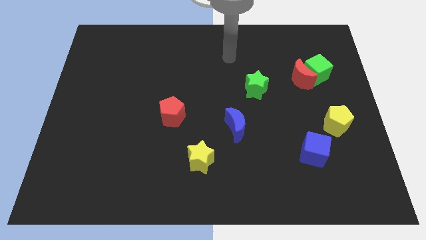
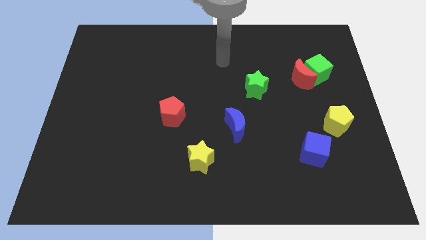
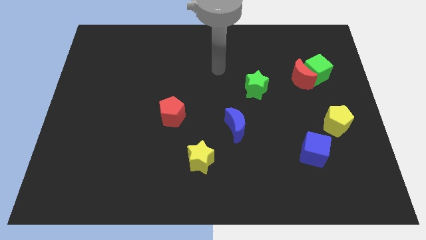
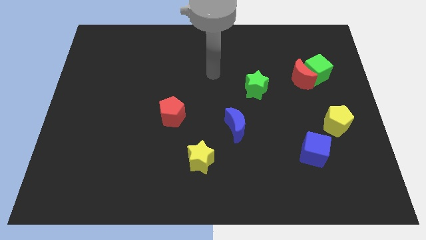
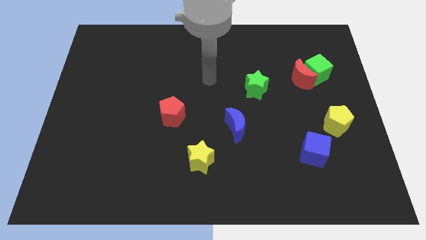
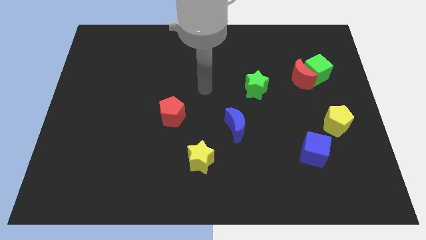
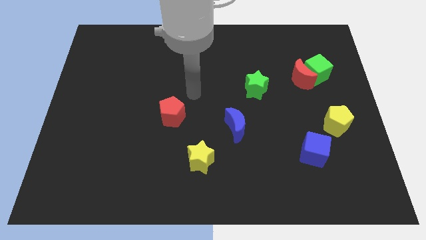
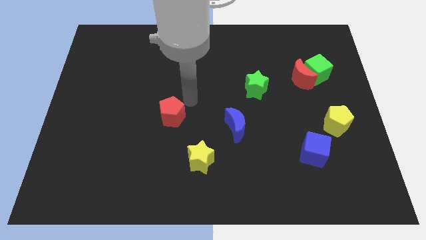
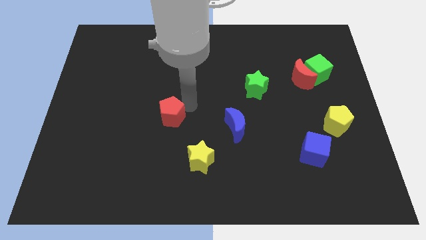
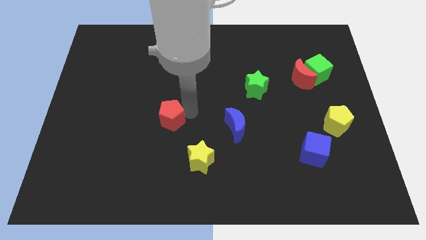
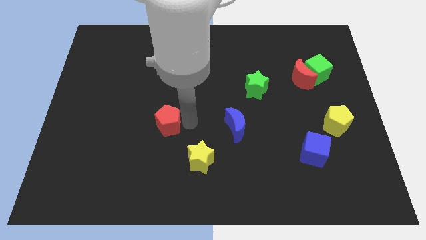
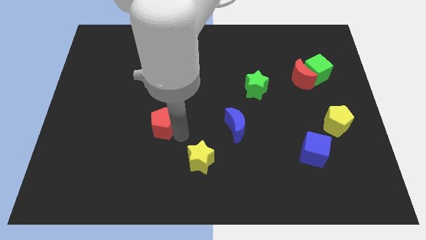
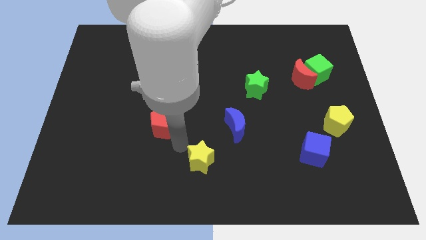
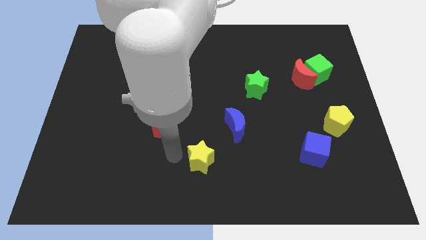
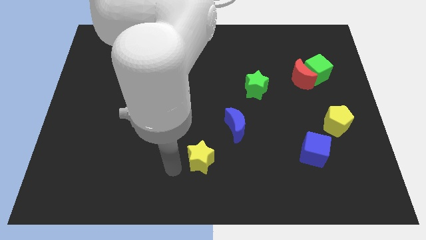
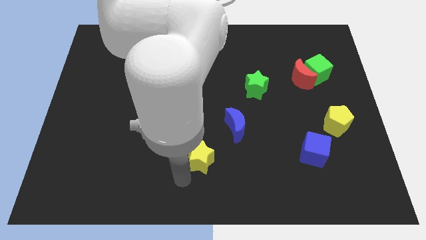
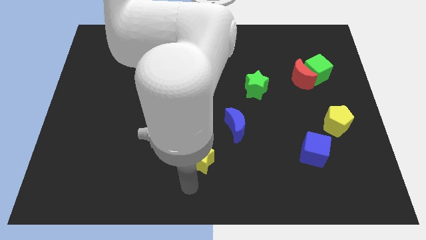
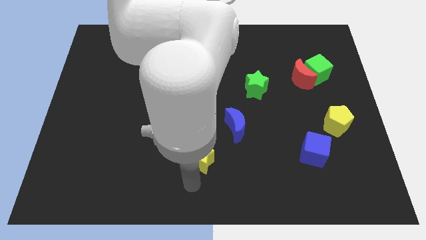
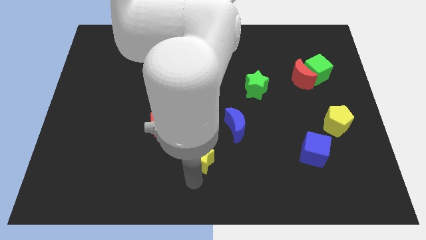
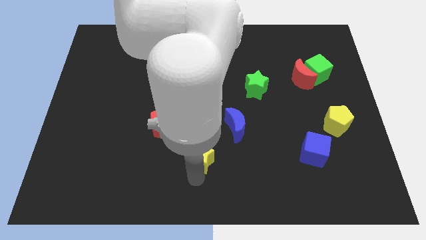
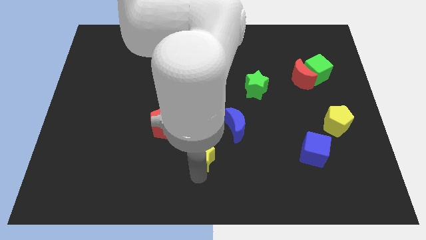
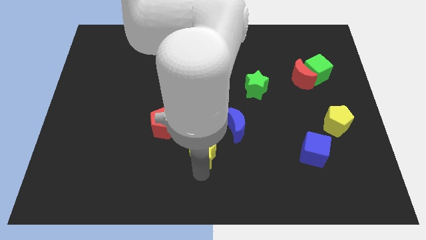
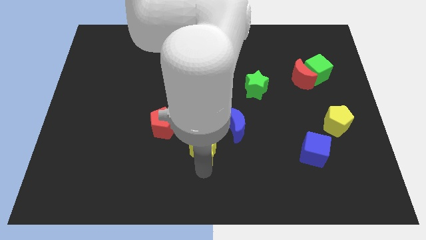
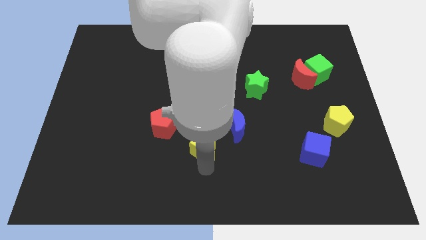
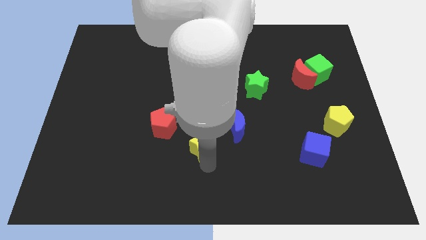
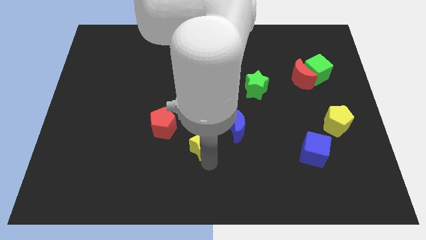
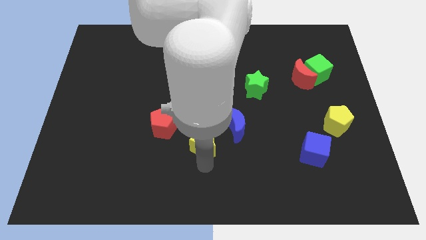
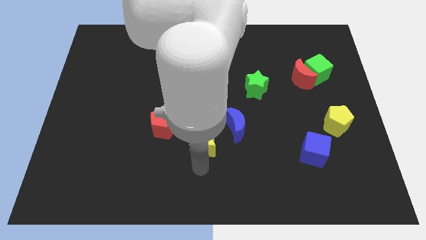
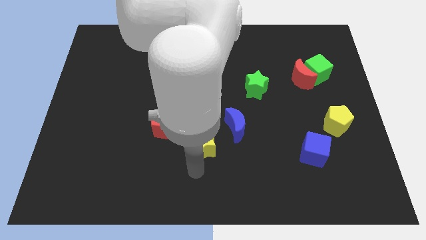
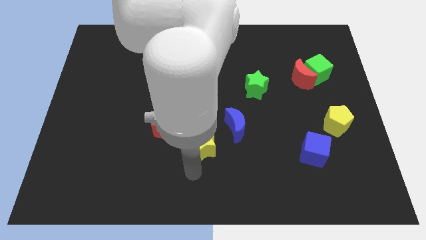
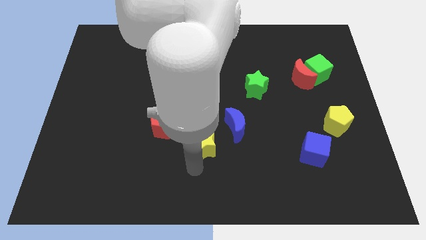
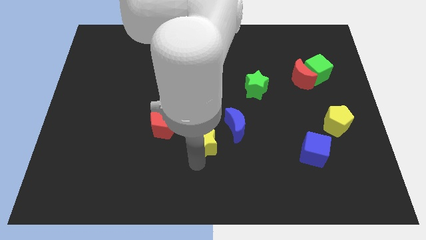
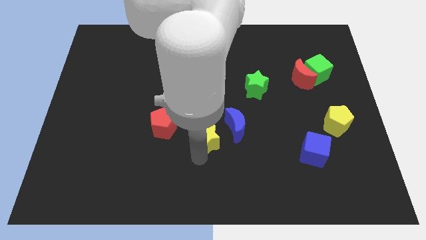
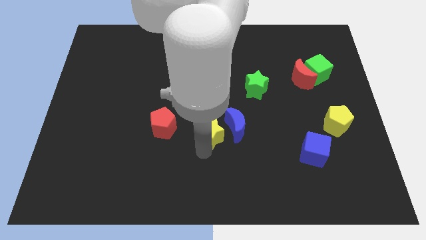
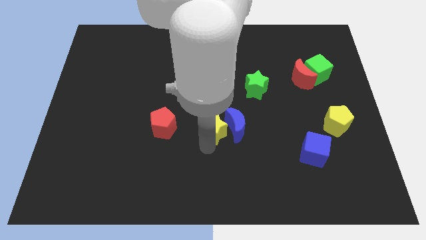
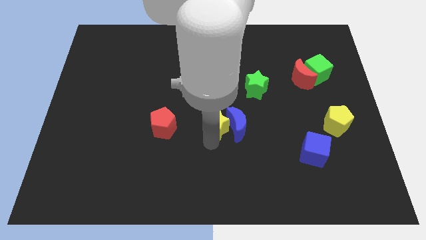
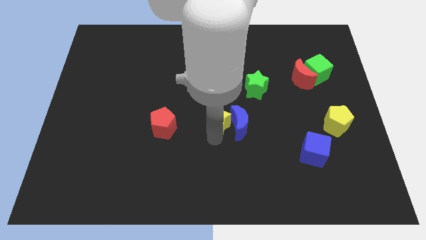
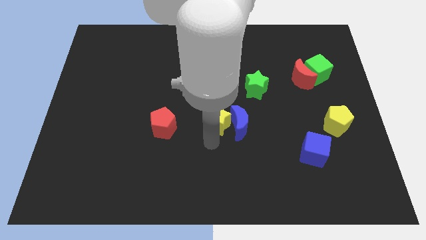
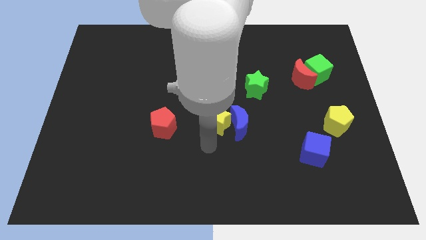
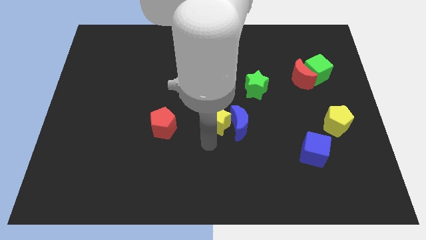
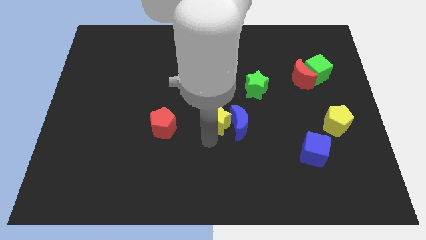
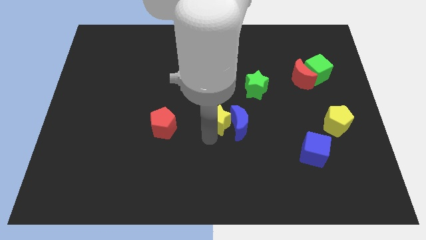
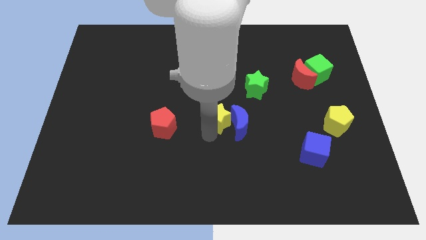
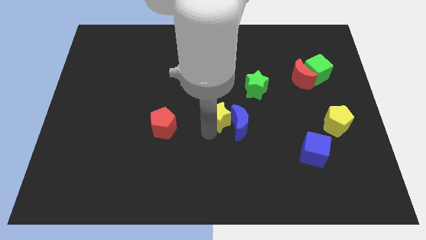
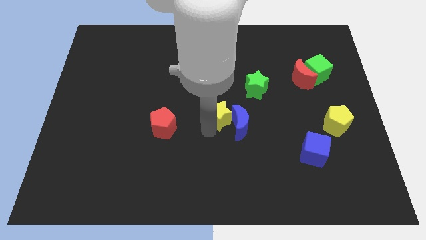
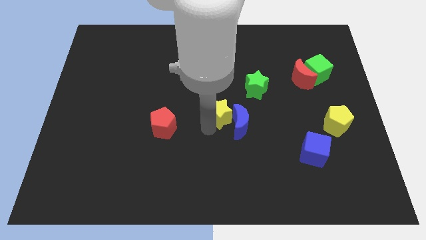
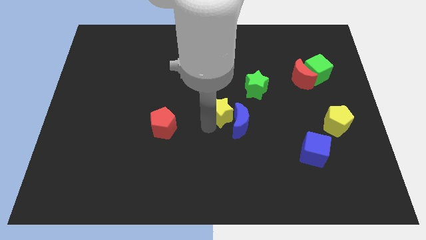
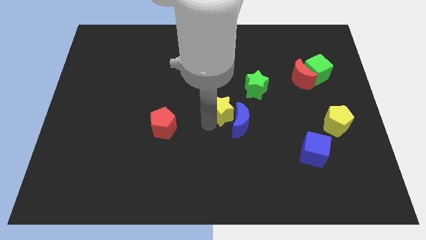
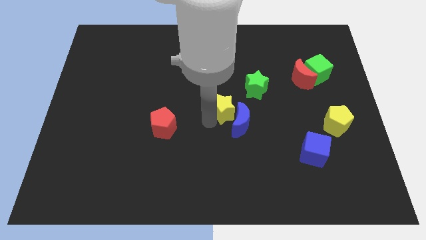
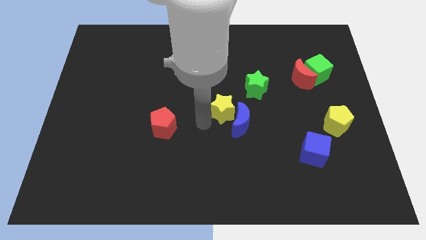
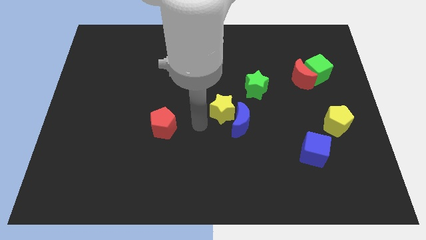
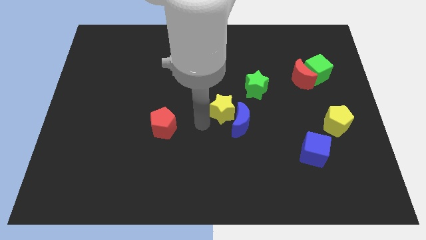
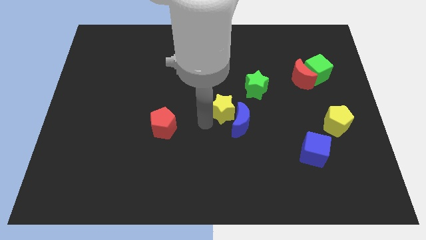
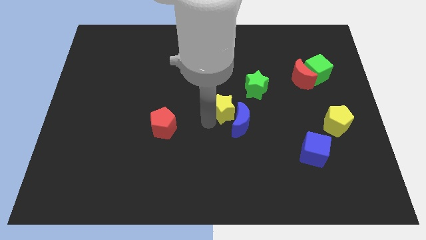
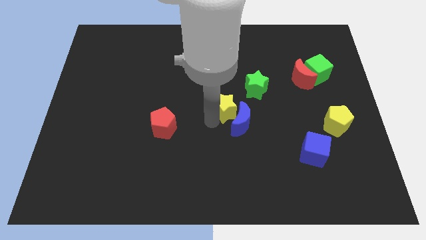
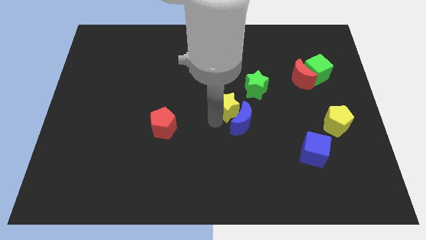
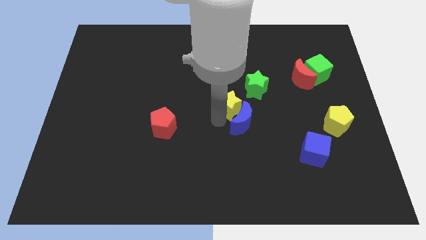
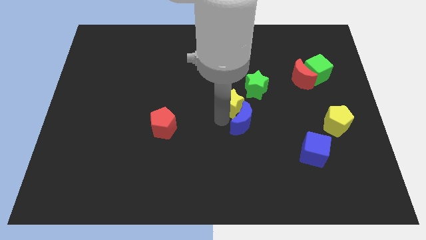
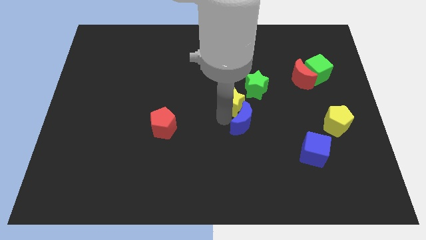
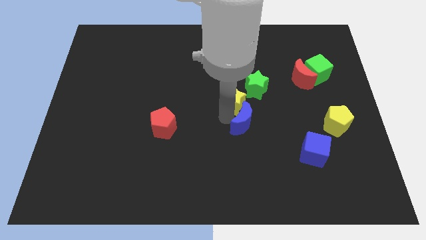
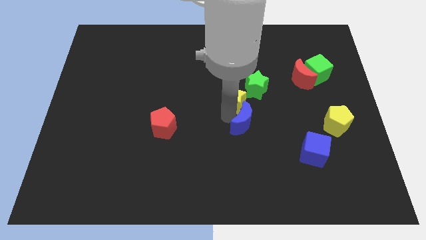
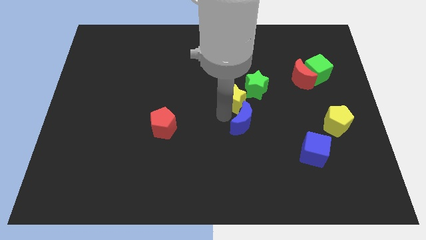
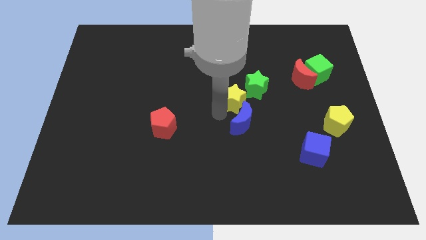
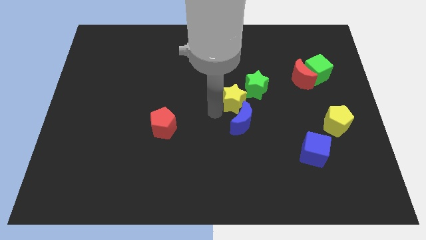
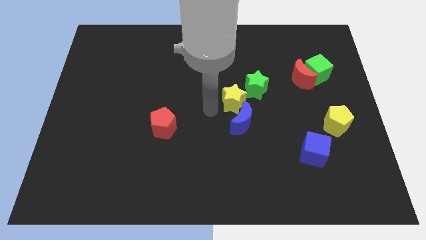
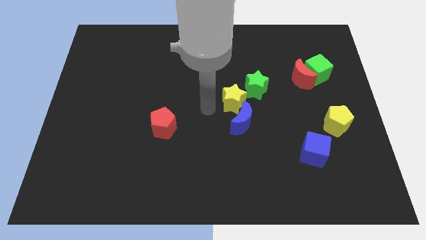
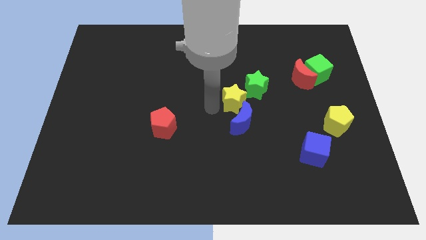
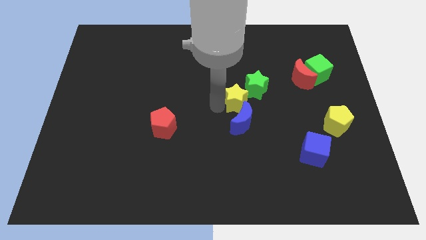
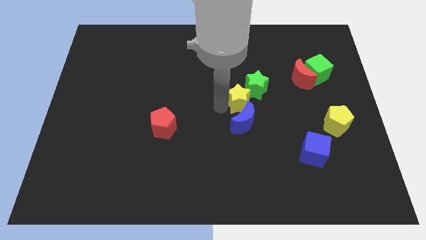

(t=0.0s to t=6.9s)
slide the yellow star next to the green star
